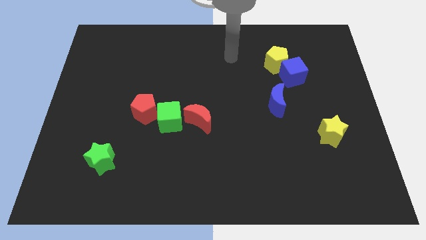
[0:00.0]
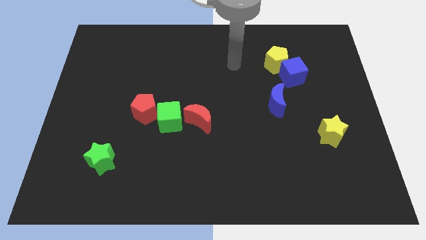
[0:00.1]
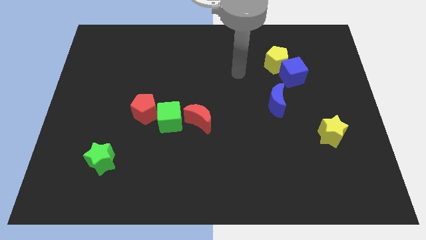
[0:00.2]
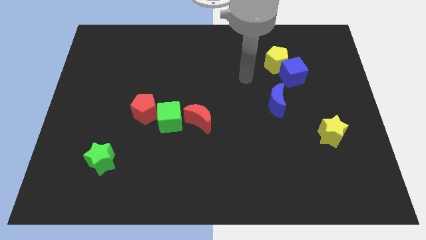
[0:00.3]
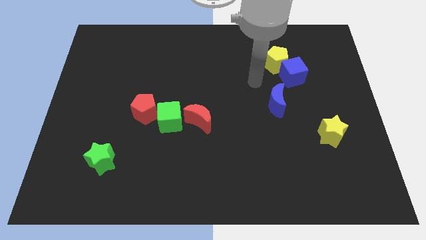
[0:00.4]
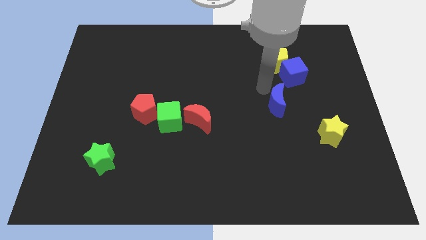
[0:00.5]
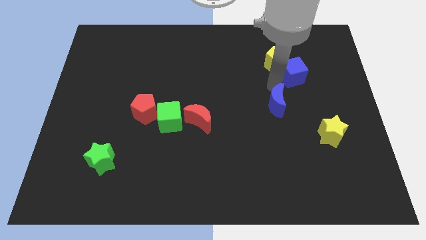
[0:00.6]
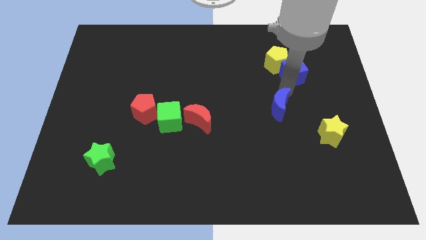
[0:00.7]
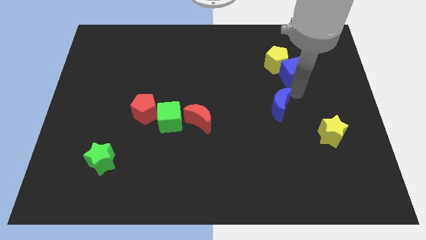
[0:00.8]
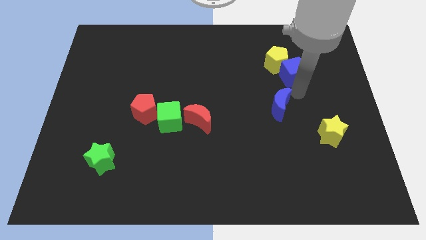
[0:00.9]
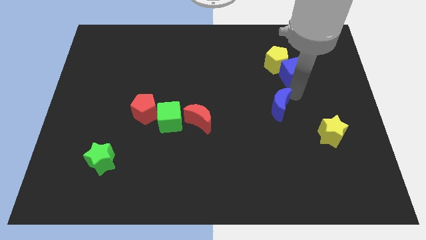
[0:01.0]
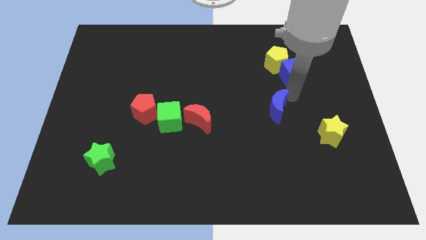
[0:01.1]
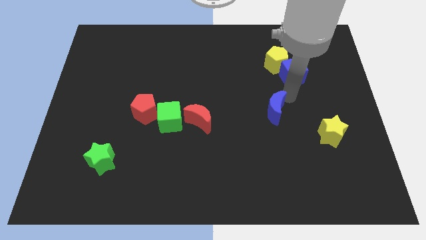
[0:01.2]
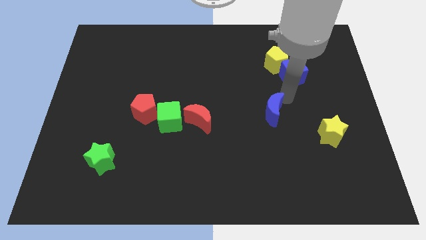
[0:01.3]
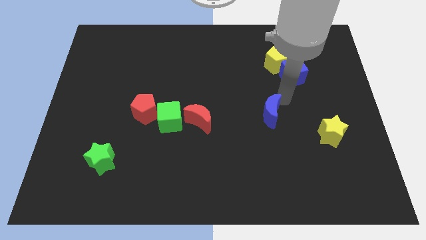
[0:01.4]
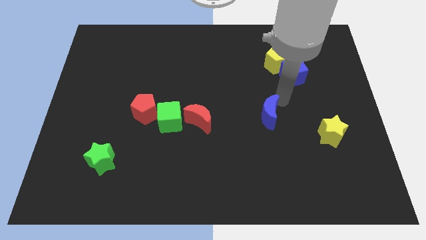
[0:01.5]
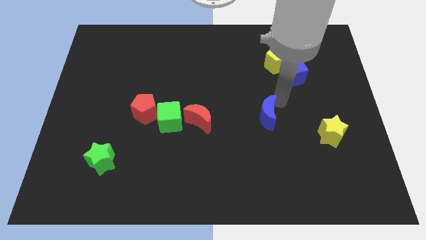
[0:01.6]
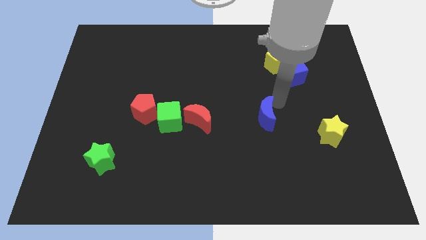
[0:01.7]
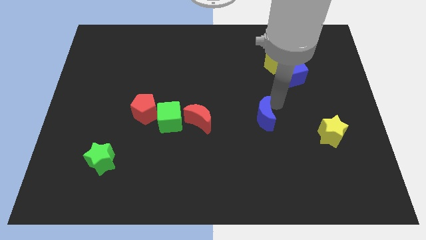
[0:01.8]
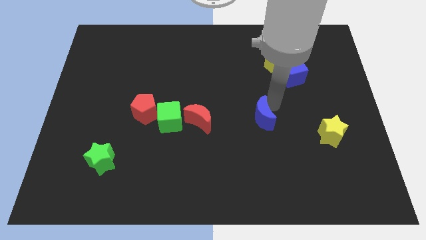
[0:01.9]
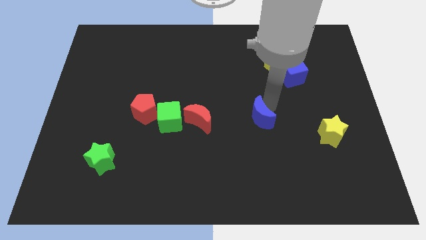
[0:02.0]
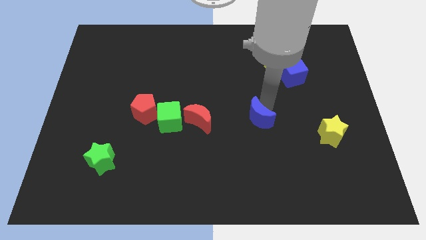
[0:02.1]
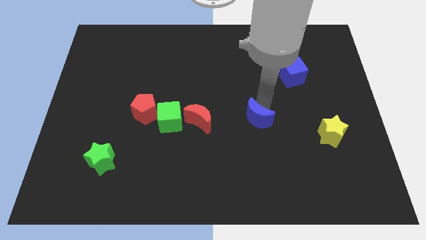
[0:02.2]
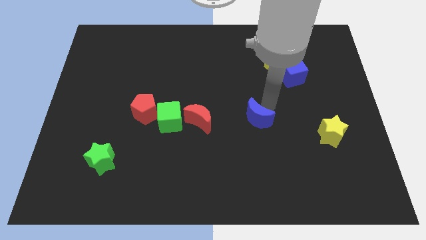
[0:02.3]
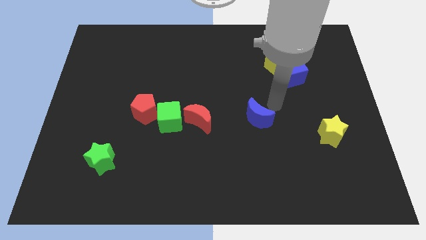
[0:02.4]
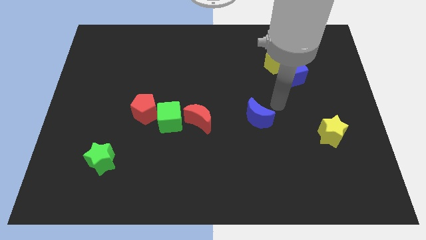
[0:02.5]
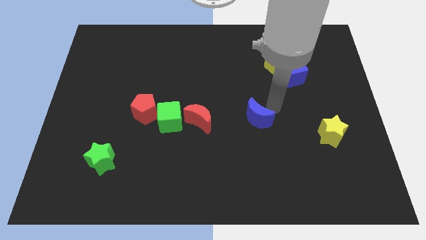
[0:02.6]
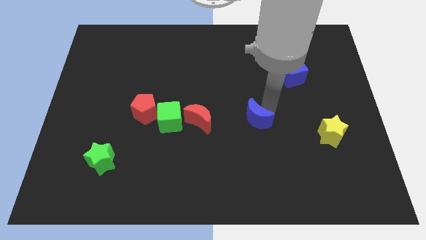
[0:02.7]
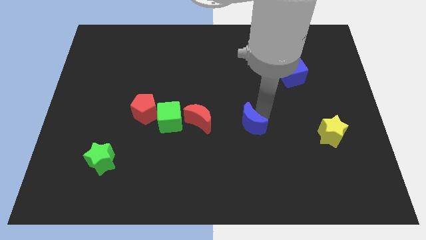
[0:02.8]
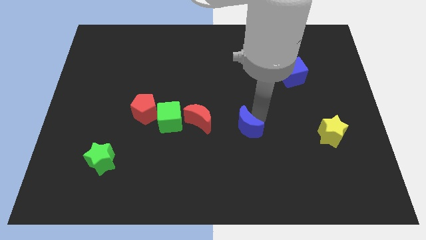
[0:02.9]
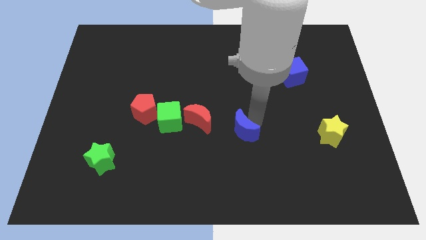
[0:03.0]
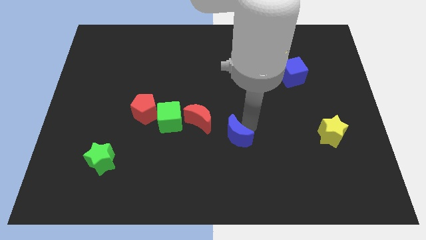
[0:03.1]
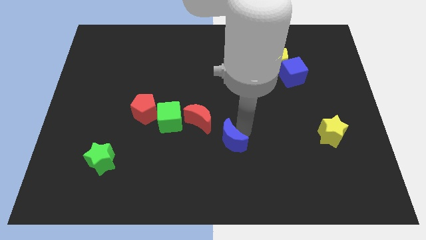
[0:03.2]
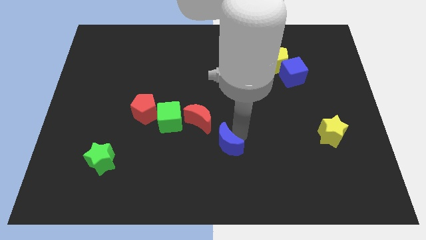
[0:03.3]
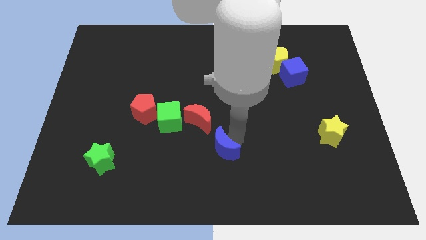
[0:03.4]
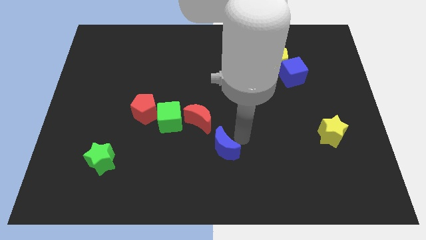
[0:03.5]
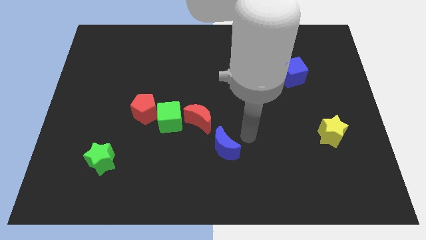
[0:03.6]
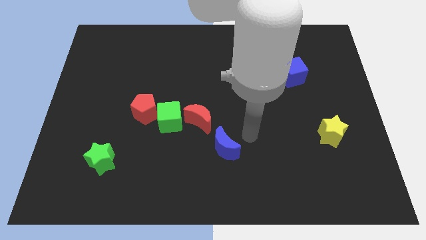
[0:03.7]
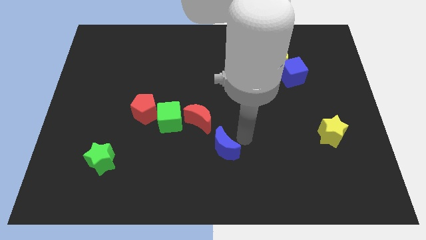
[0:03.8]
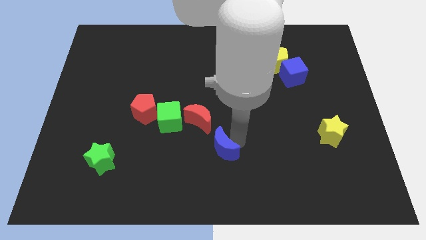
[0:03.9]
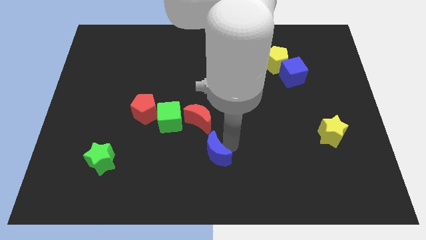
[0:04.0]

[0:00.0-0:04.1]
move the blue moon below the red moon

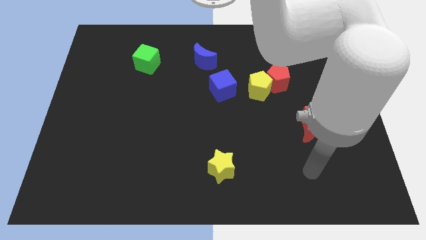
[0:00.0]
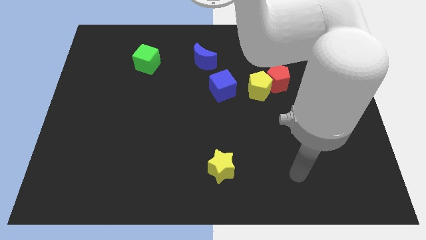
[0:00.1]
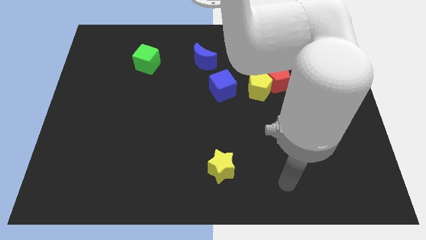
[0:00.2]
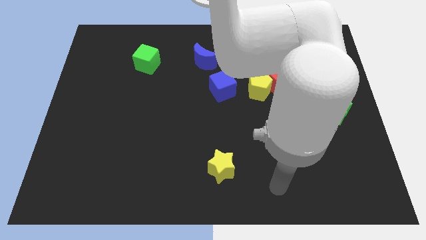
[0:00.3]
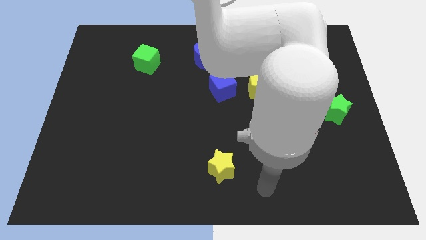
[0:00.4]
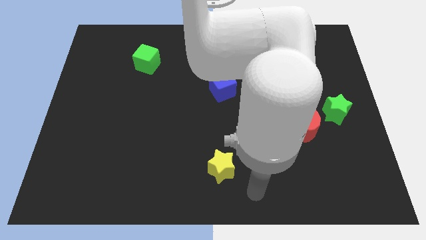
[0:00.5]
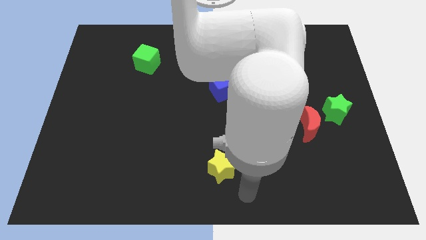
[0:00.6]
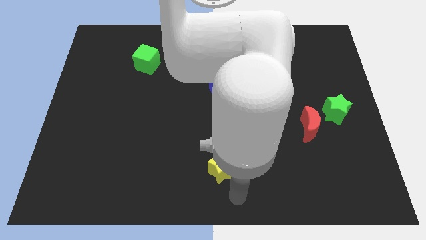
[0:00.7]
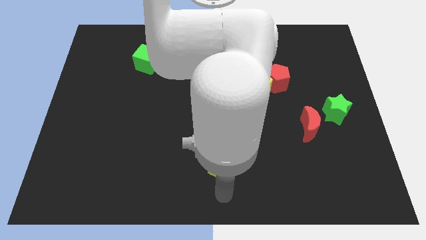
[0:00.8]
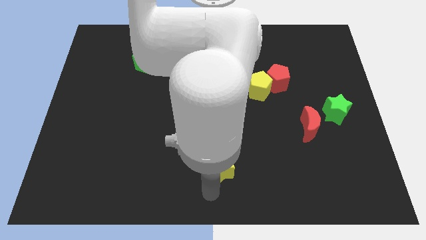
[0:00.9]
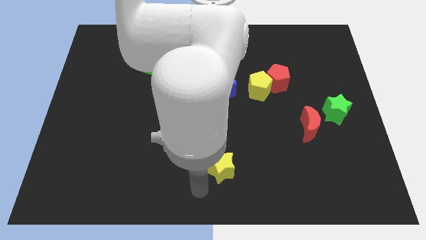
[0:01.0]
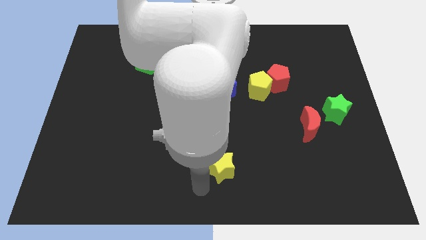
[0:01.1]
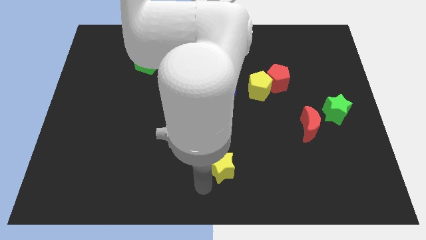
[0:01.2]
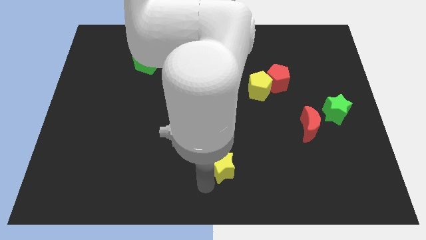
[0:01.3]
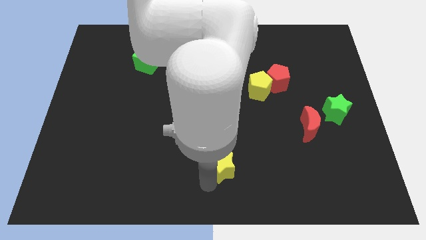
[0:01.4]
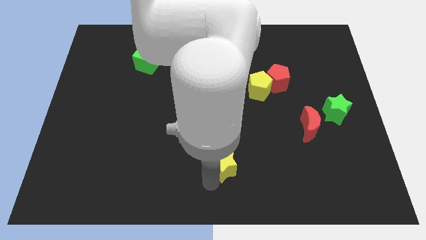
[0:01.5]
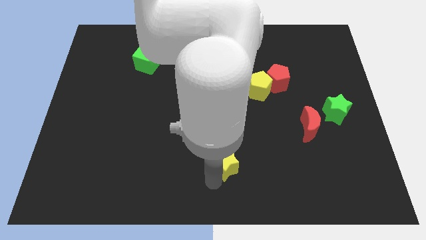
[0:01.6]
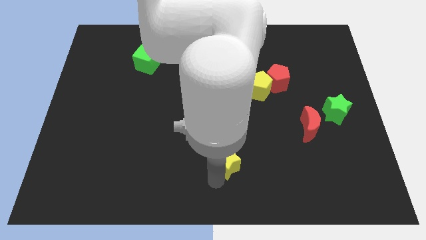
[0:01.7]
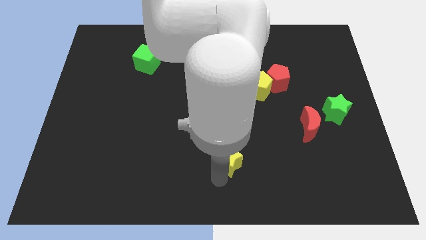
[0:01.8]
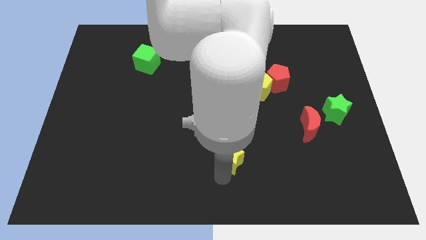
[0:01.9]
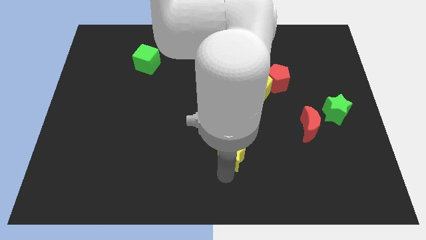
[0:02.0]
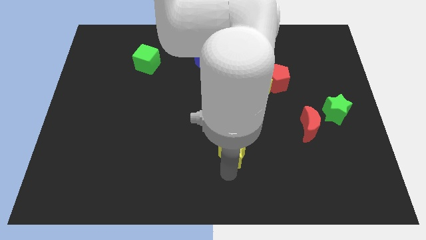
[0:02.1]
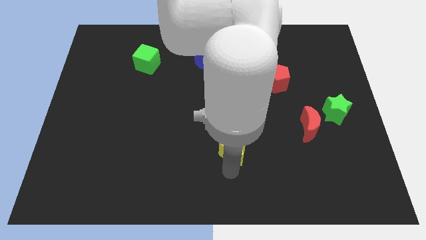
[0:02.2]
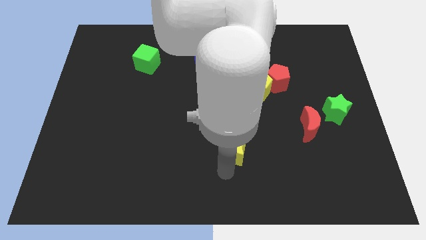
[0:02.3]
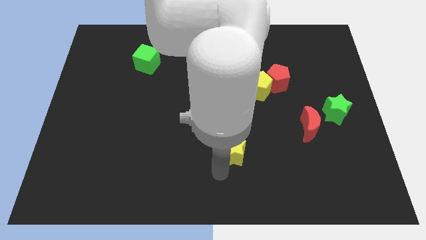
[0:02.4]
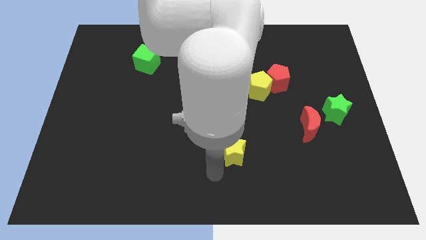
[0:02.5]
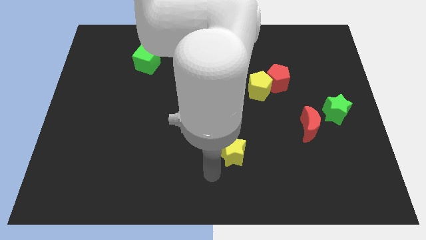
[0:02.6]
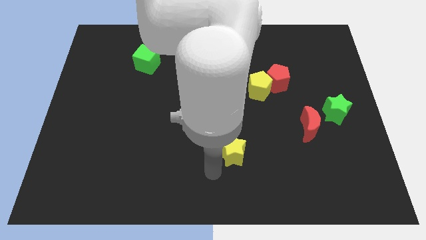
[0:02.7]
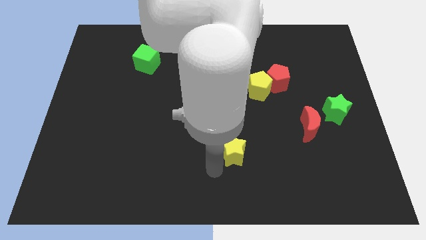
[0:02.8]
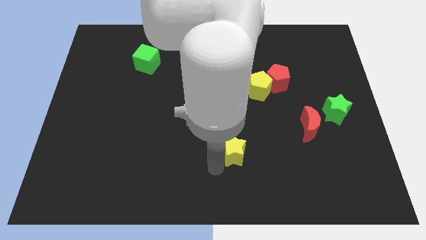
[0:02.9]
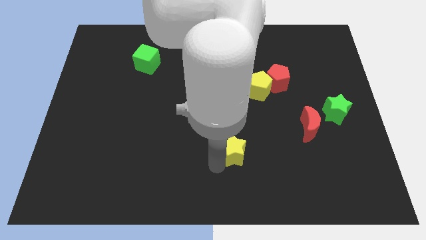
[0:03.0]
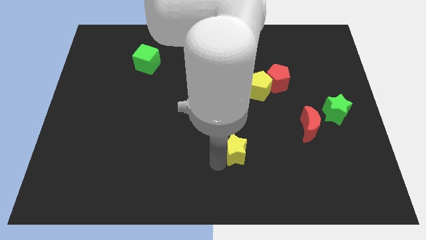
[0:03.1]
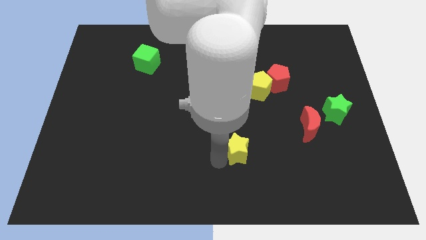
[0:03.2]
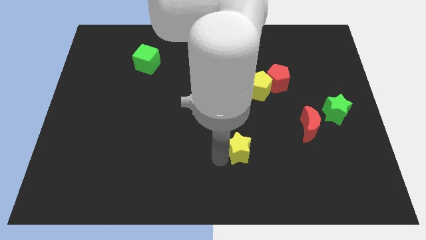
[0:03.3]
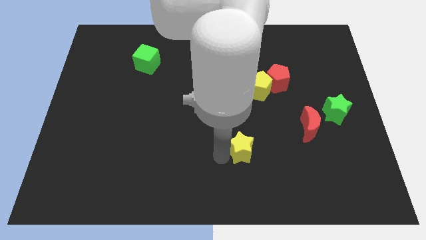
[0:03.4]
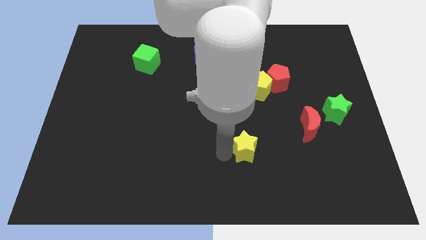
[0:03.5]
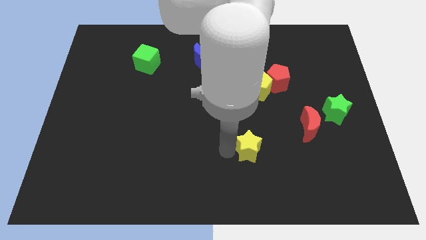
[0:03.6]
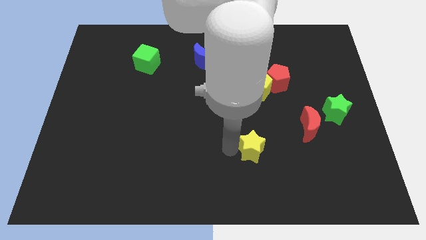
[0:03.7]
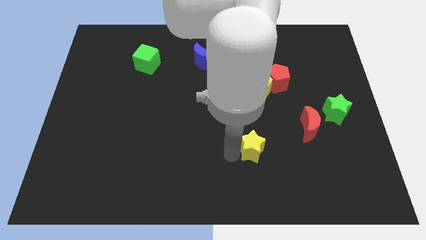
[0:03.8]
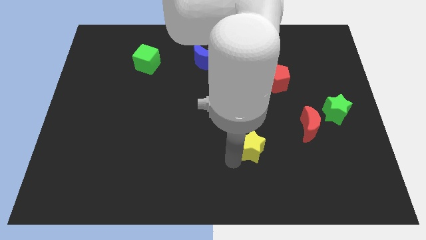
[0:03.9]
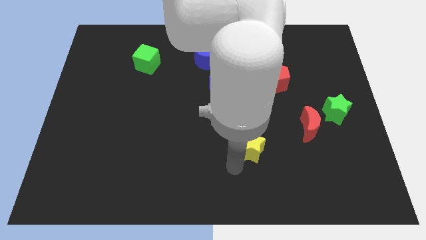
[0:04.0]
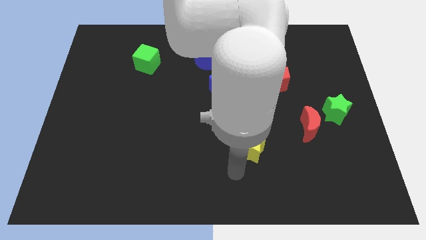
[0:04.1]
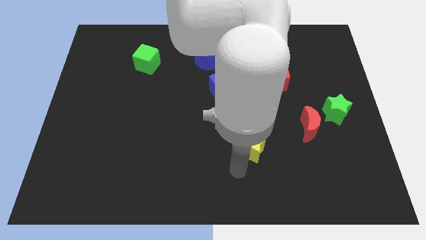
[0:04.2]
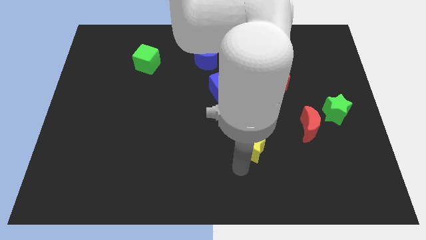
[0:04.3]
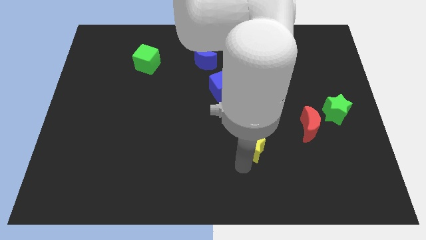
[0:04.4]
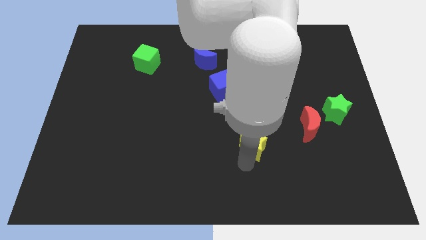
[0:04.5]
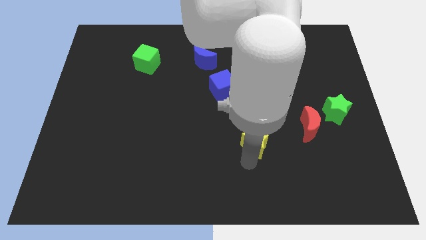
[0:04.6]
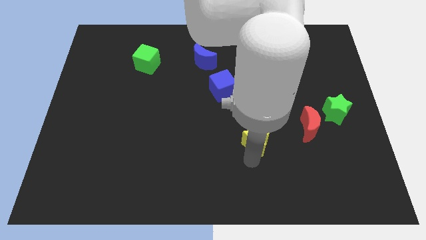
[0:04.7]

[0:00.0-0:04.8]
put the yellow star left of the red moon
